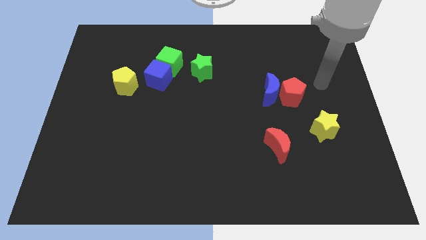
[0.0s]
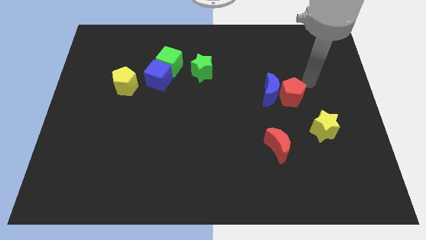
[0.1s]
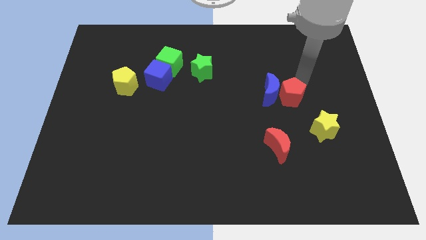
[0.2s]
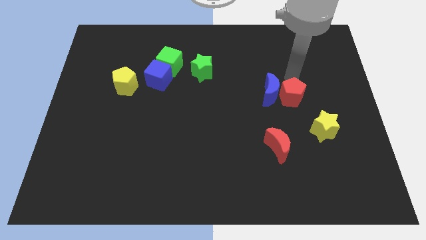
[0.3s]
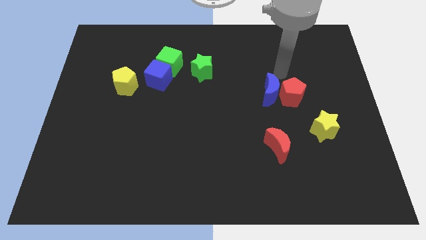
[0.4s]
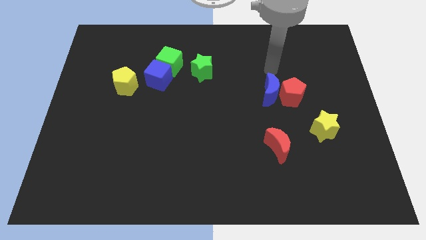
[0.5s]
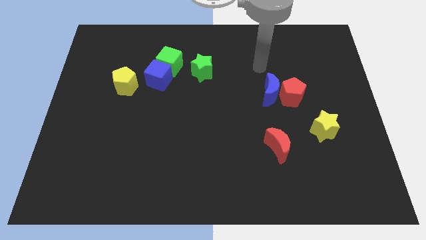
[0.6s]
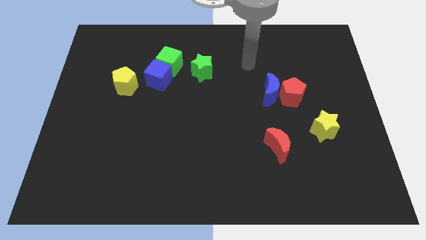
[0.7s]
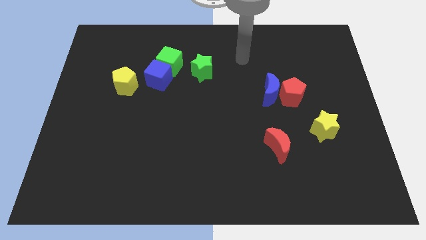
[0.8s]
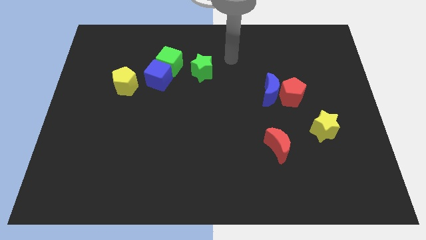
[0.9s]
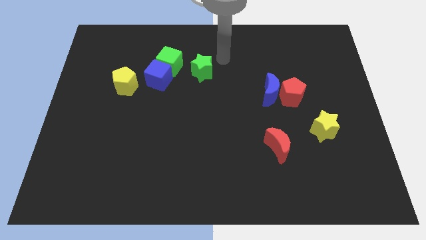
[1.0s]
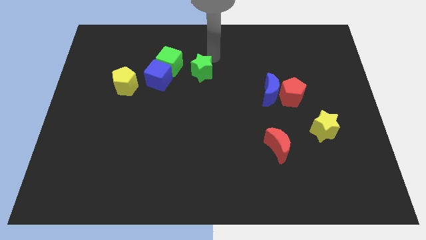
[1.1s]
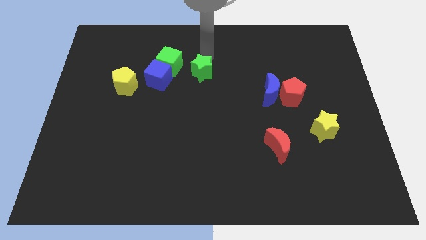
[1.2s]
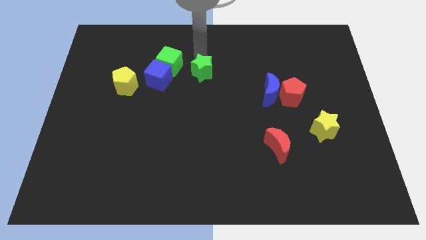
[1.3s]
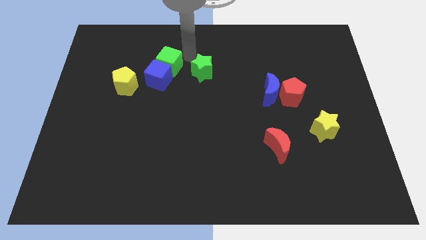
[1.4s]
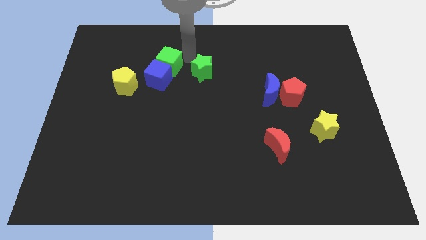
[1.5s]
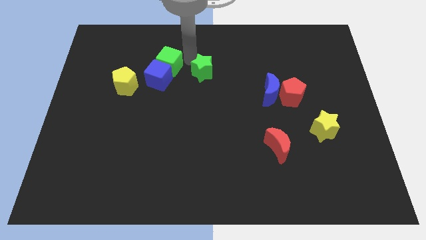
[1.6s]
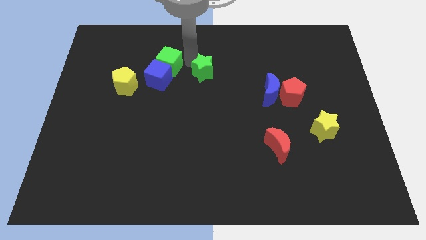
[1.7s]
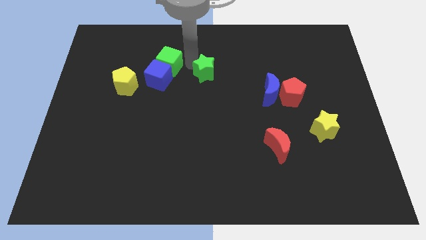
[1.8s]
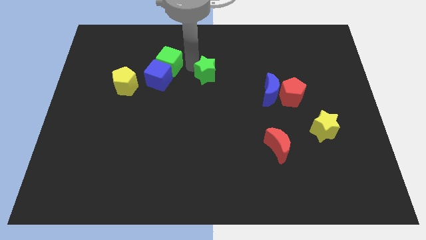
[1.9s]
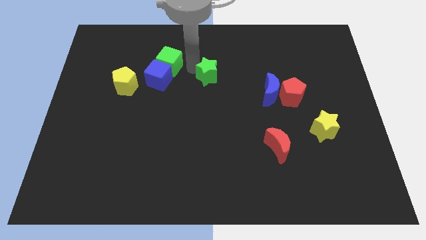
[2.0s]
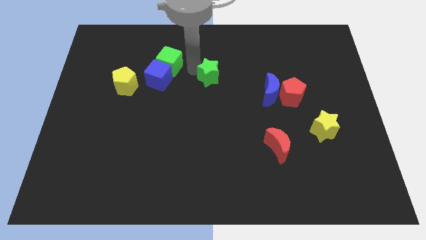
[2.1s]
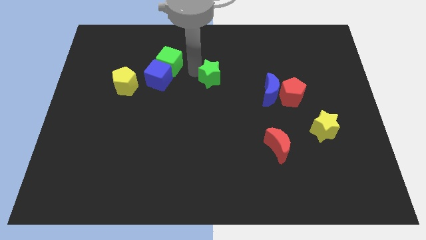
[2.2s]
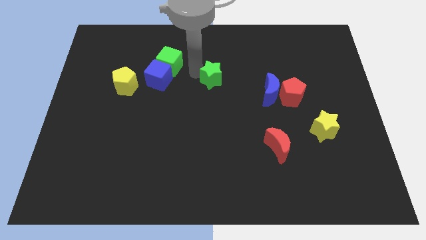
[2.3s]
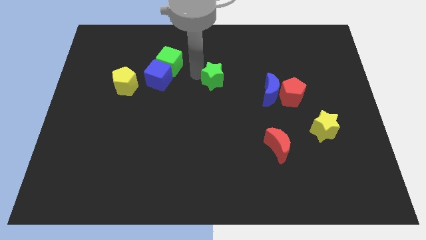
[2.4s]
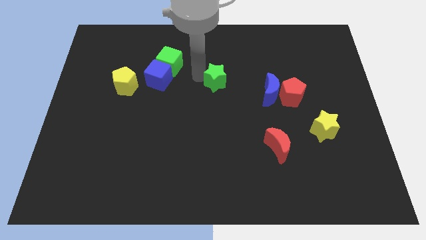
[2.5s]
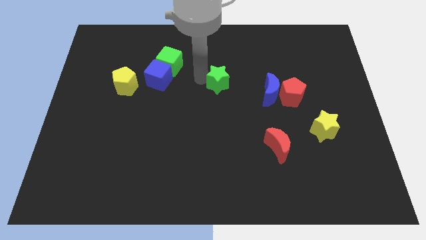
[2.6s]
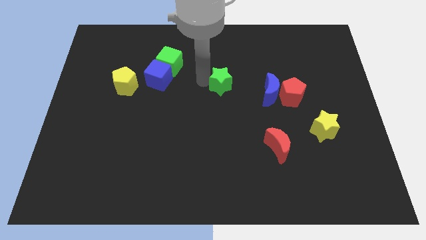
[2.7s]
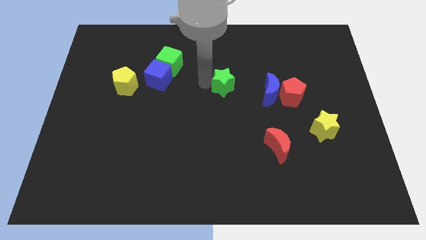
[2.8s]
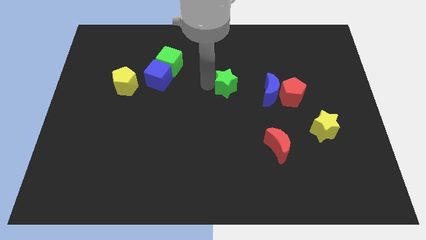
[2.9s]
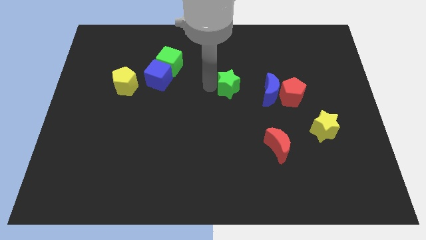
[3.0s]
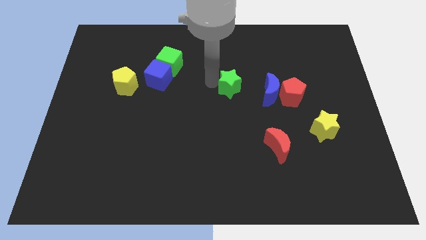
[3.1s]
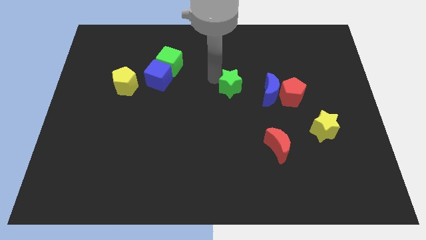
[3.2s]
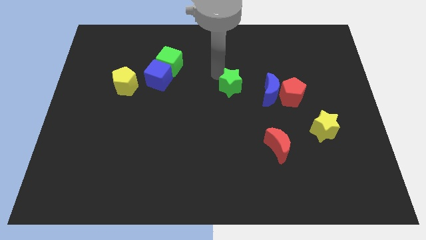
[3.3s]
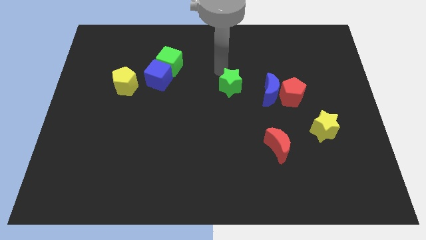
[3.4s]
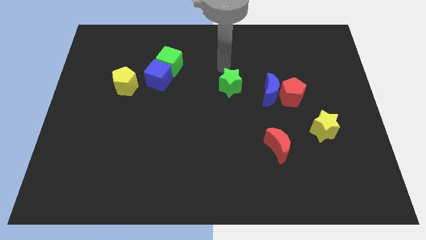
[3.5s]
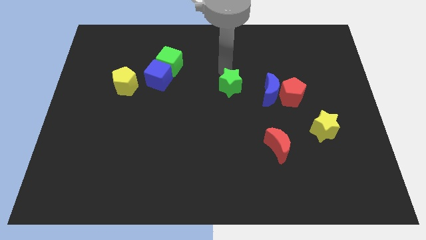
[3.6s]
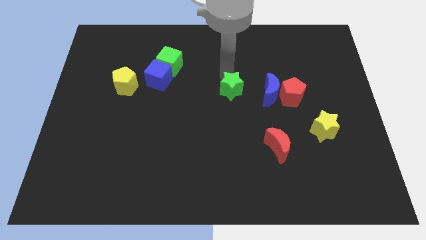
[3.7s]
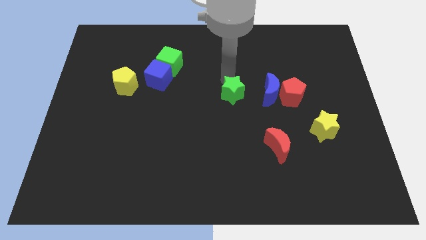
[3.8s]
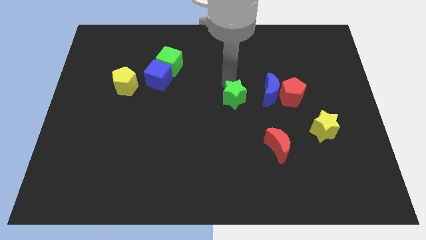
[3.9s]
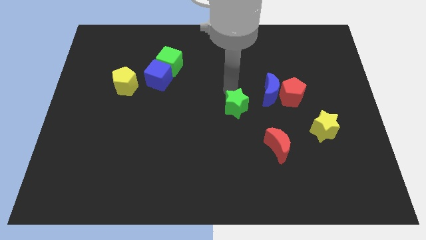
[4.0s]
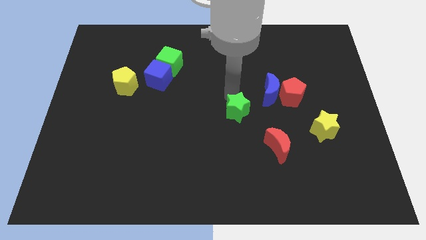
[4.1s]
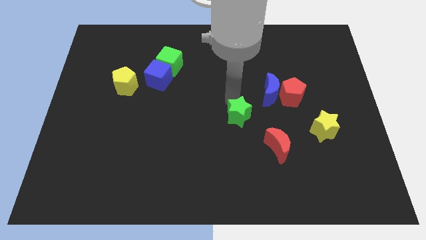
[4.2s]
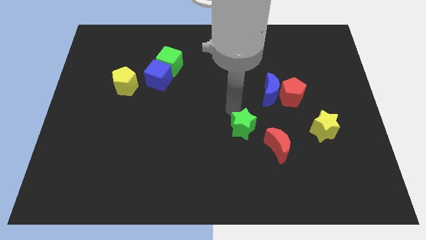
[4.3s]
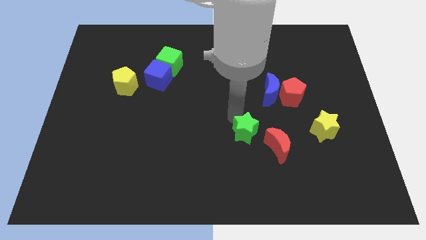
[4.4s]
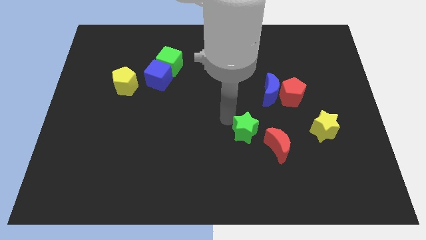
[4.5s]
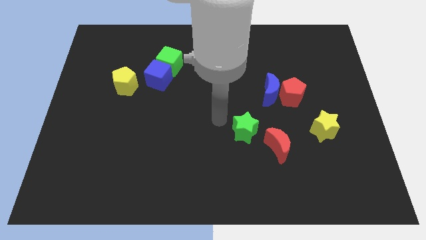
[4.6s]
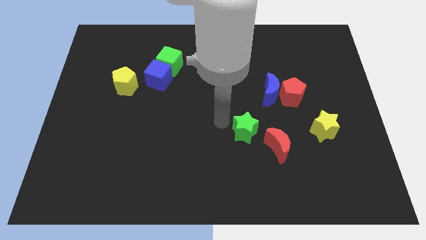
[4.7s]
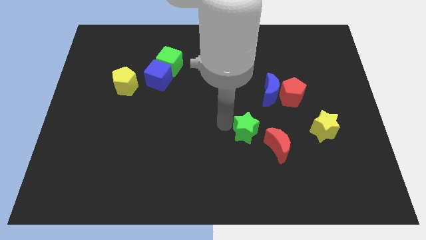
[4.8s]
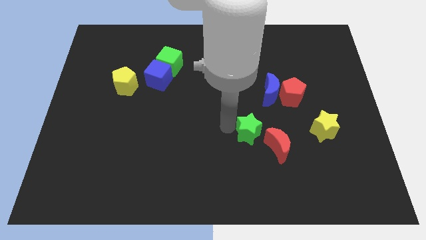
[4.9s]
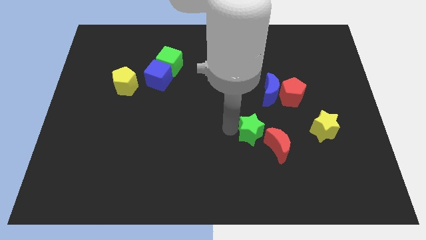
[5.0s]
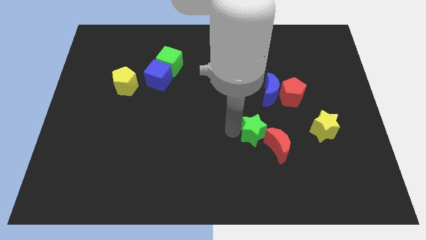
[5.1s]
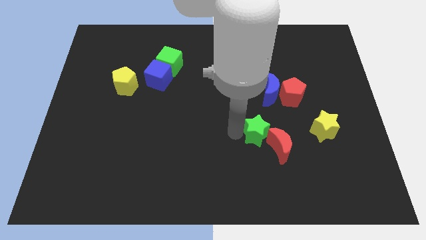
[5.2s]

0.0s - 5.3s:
put the green star close to the red moon

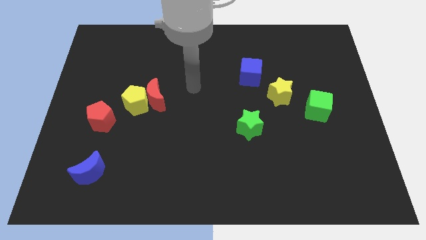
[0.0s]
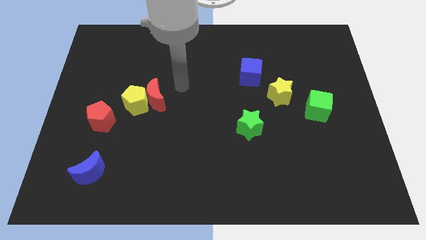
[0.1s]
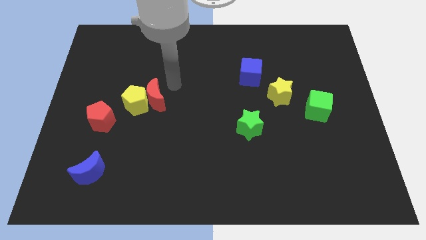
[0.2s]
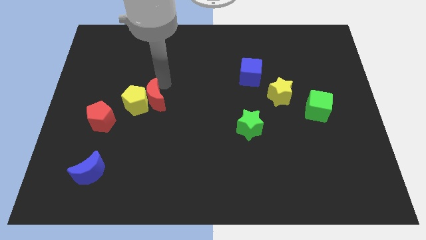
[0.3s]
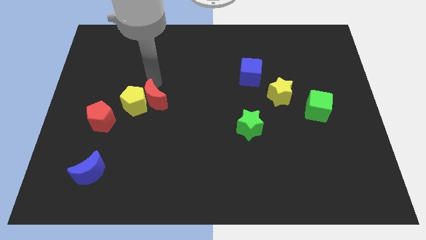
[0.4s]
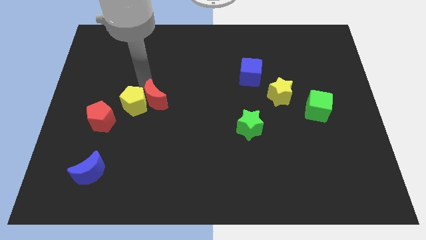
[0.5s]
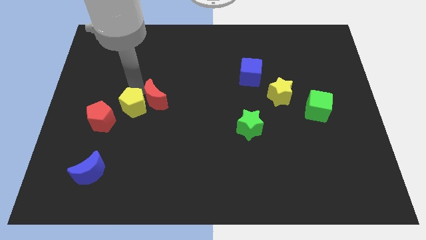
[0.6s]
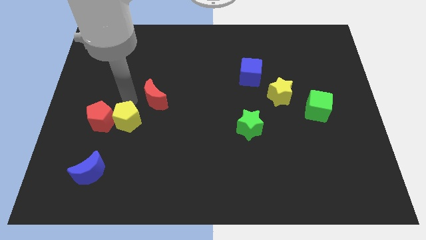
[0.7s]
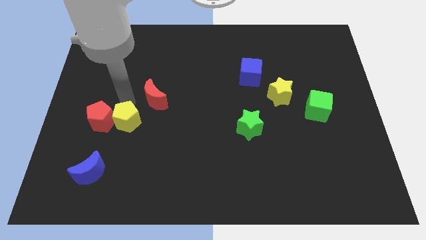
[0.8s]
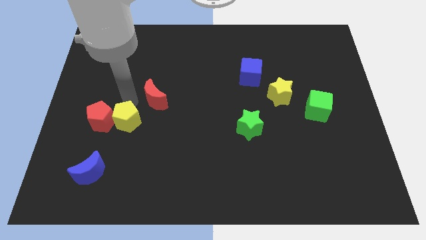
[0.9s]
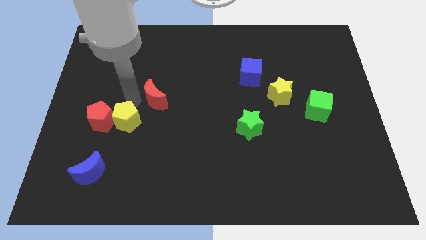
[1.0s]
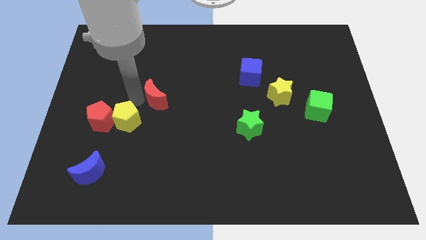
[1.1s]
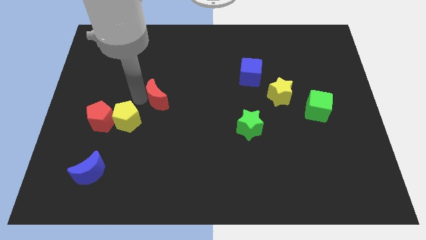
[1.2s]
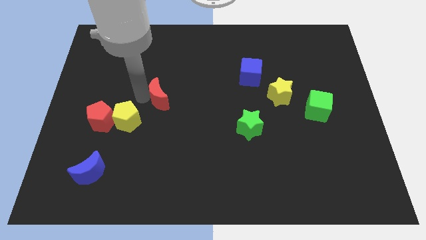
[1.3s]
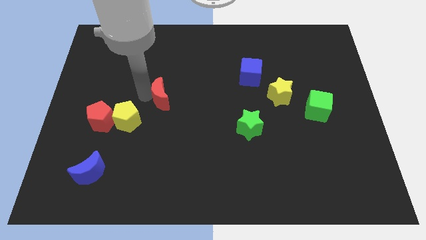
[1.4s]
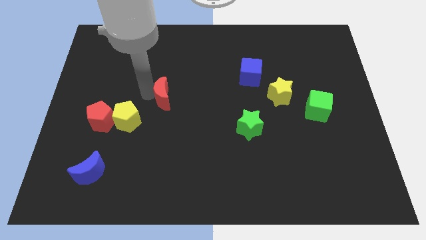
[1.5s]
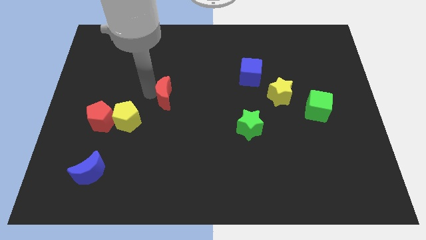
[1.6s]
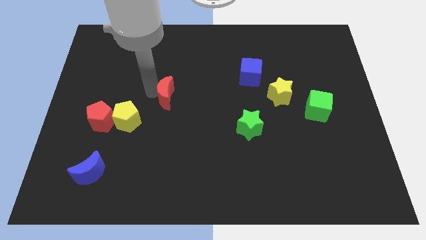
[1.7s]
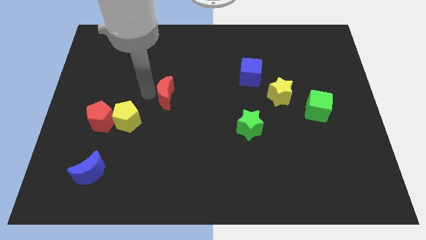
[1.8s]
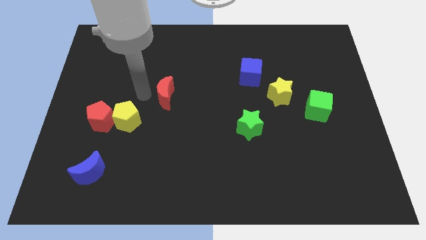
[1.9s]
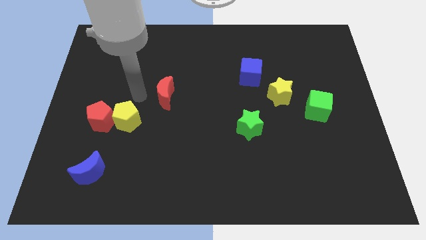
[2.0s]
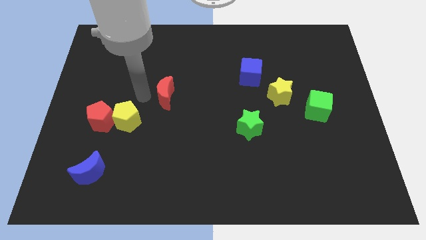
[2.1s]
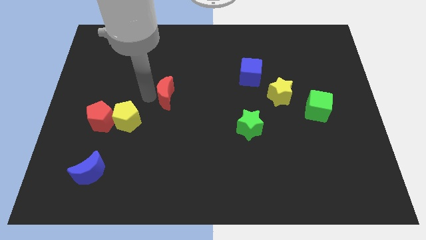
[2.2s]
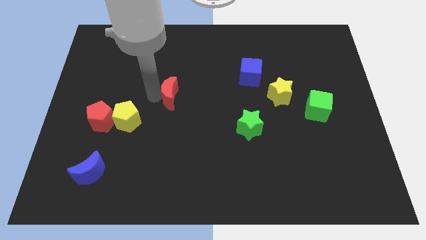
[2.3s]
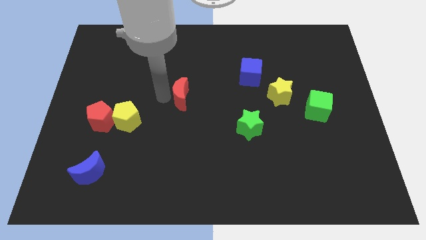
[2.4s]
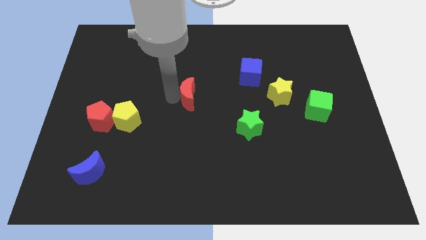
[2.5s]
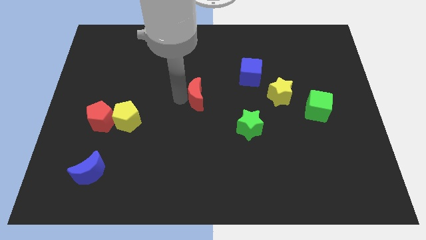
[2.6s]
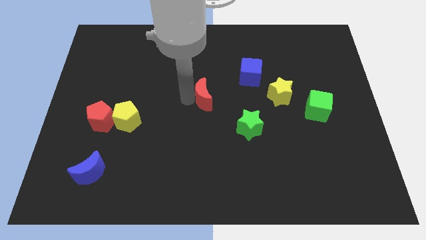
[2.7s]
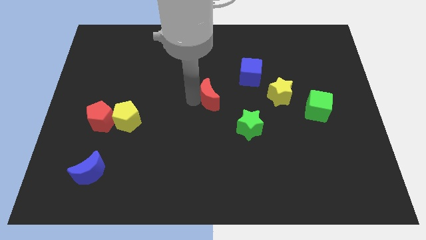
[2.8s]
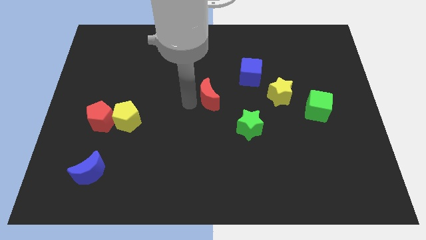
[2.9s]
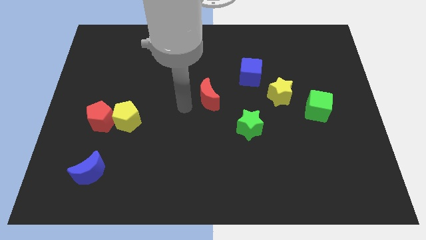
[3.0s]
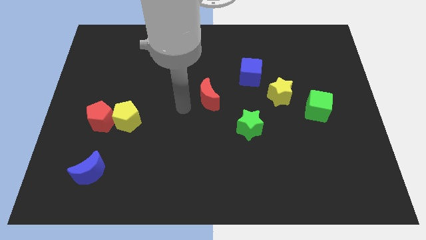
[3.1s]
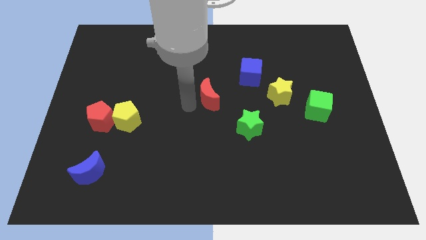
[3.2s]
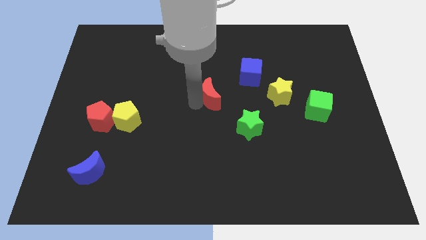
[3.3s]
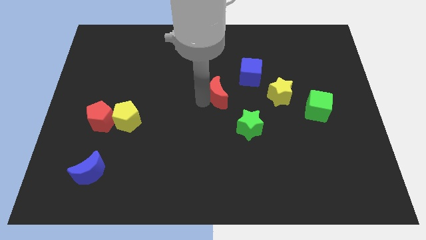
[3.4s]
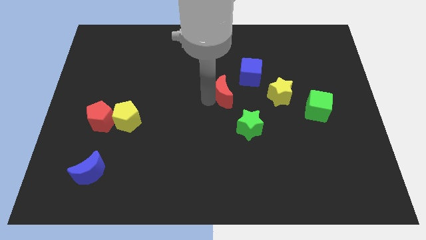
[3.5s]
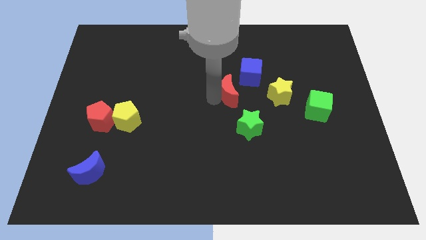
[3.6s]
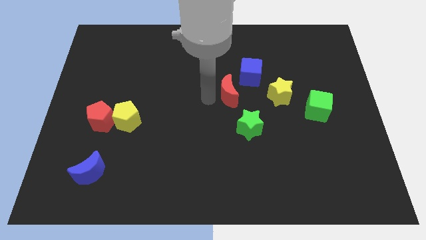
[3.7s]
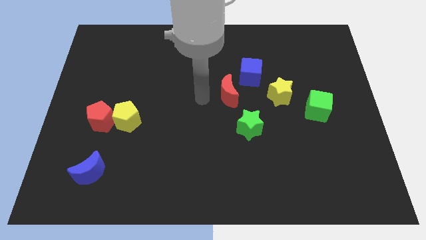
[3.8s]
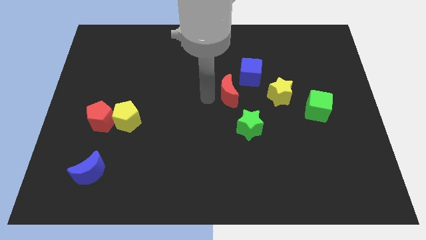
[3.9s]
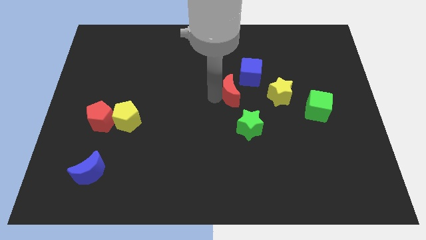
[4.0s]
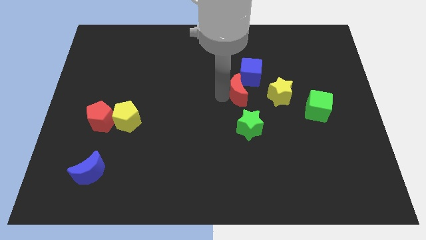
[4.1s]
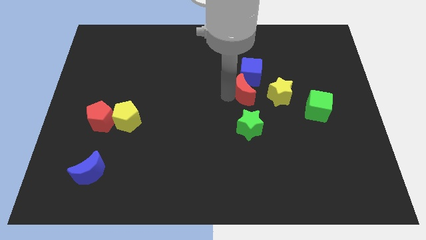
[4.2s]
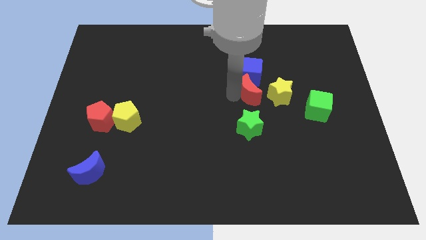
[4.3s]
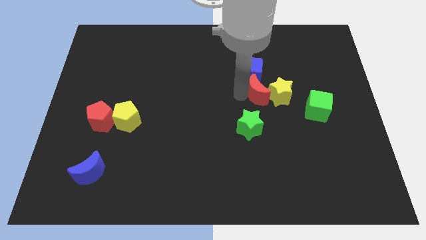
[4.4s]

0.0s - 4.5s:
move the red moon towards the yellow star
